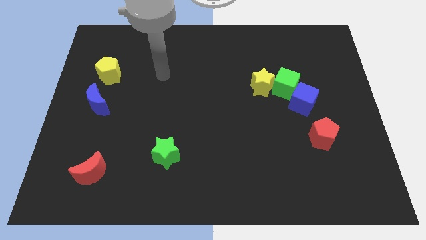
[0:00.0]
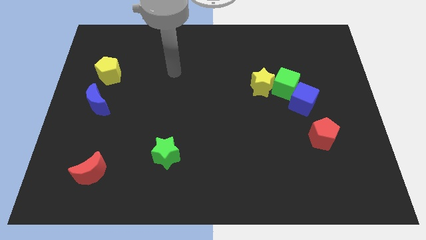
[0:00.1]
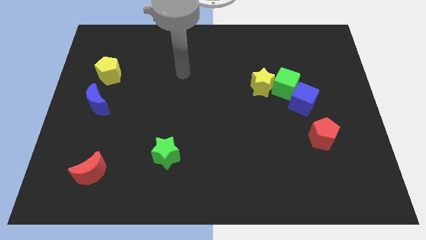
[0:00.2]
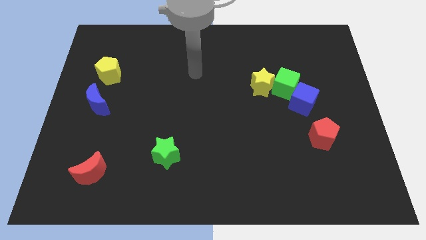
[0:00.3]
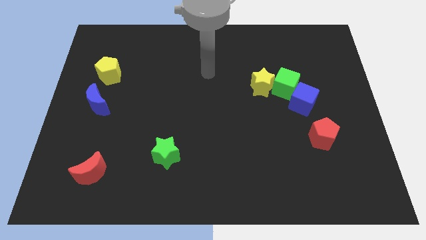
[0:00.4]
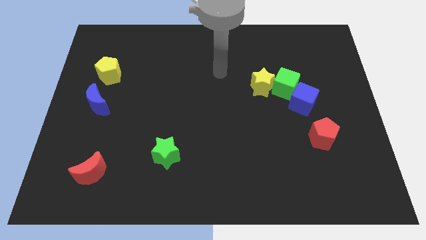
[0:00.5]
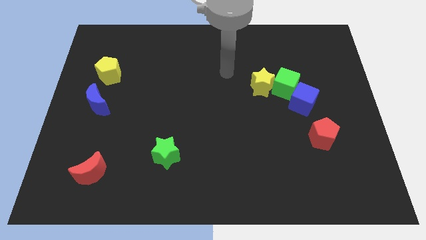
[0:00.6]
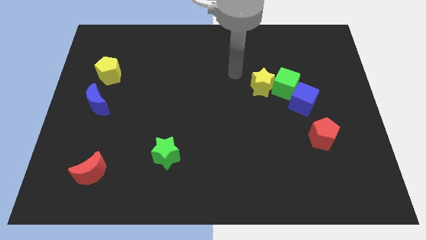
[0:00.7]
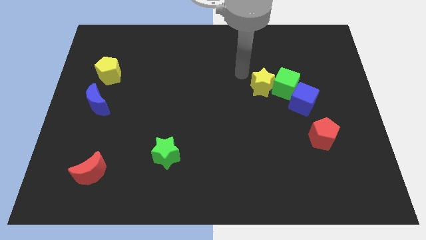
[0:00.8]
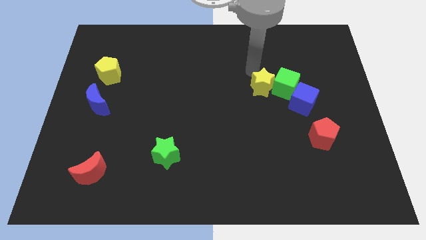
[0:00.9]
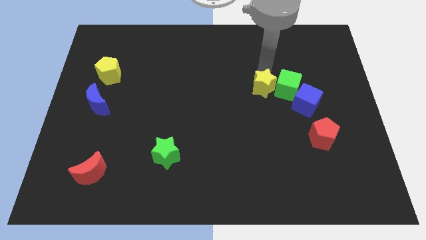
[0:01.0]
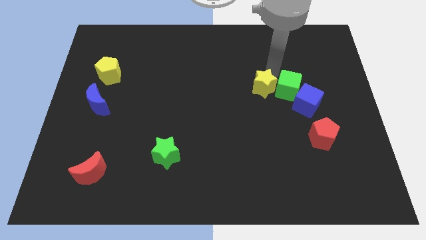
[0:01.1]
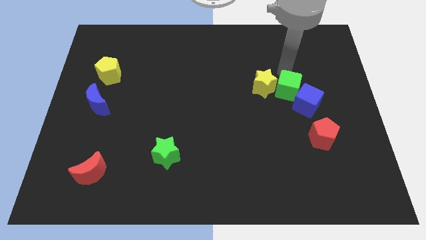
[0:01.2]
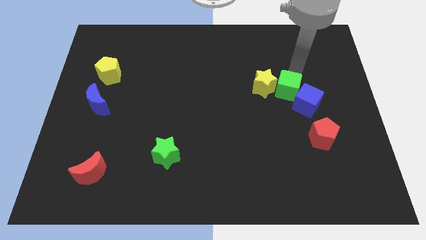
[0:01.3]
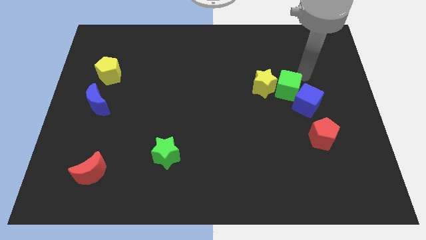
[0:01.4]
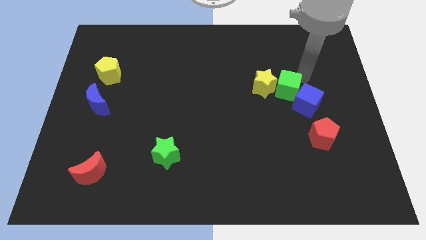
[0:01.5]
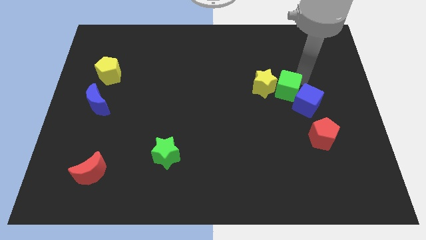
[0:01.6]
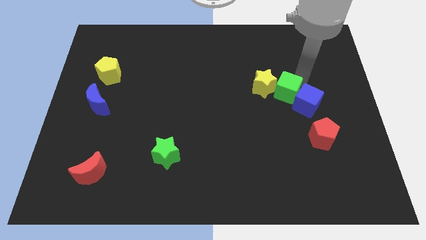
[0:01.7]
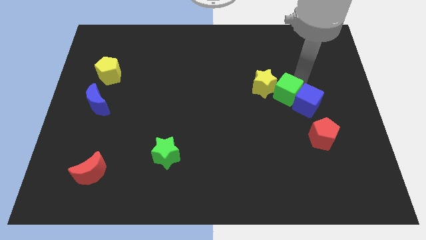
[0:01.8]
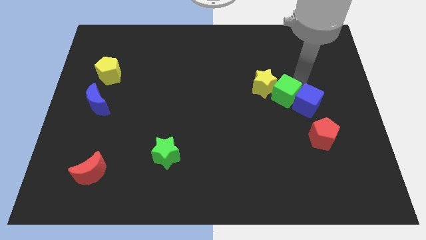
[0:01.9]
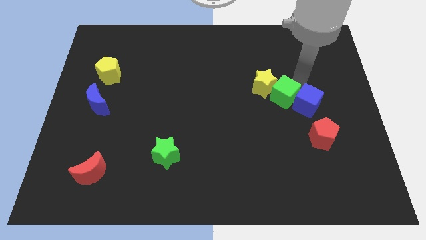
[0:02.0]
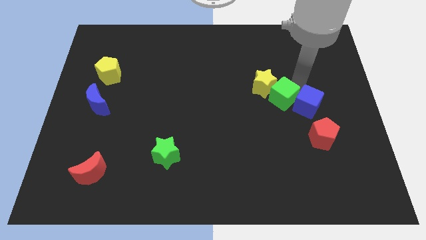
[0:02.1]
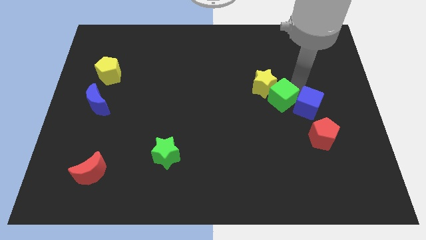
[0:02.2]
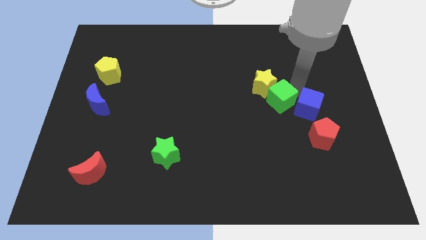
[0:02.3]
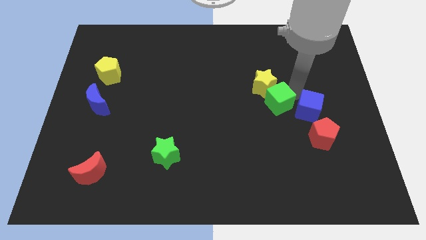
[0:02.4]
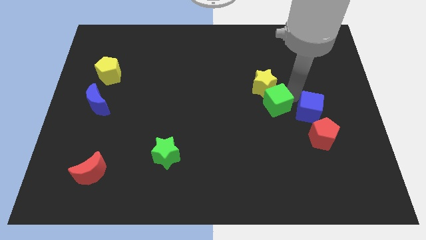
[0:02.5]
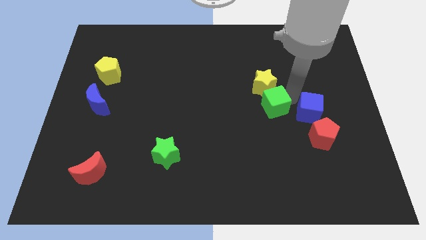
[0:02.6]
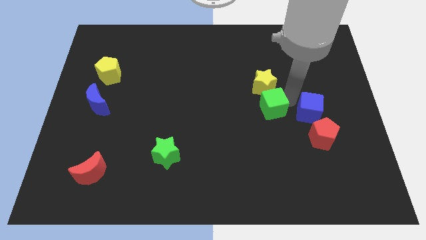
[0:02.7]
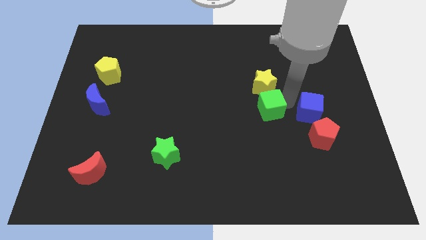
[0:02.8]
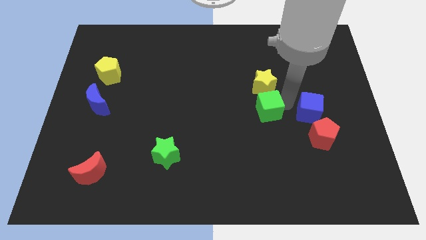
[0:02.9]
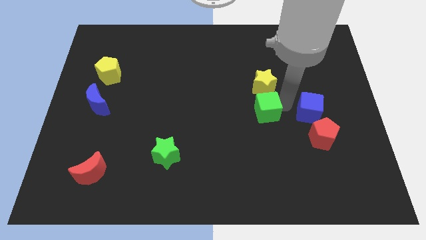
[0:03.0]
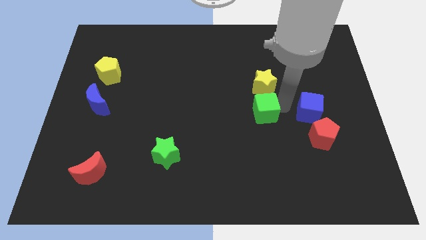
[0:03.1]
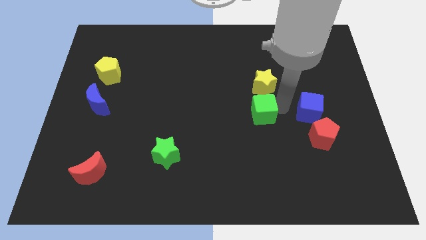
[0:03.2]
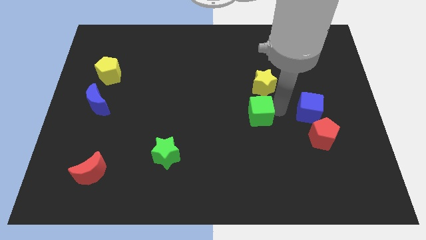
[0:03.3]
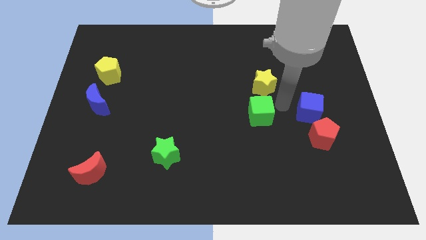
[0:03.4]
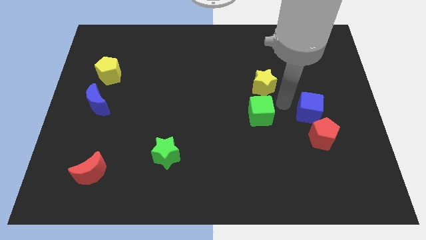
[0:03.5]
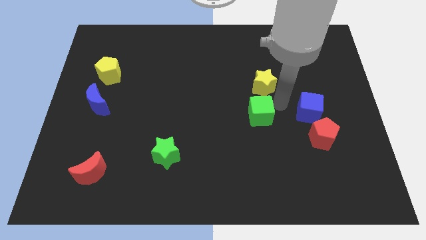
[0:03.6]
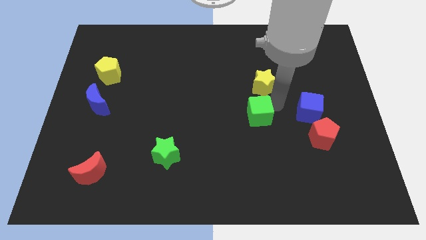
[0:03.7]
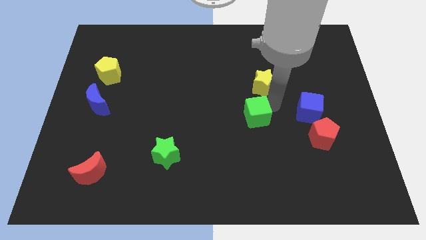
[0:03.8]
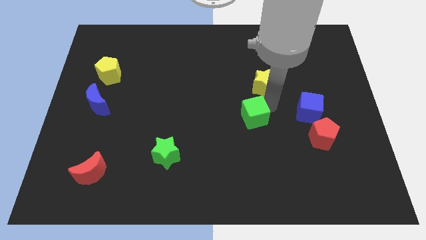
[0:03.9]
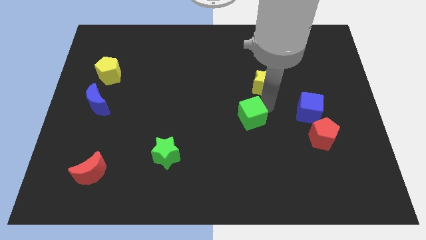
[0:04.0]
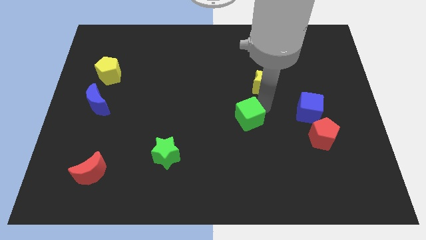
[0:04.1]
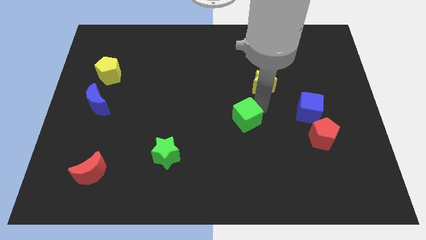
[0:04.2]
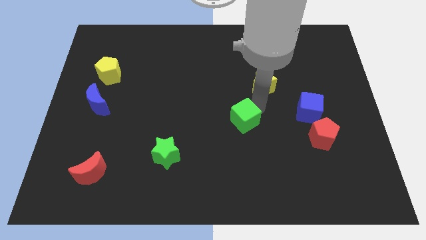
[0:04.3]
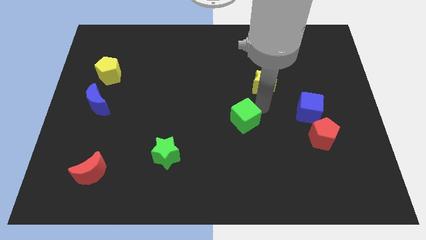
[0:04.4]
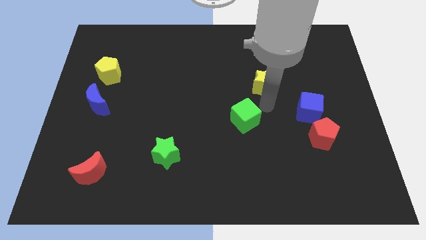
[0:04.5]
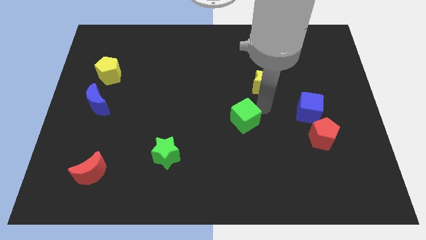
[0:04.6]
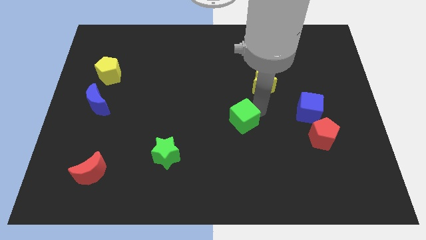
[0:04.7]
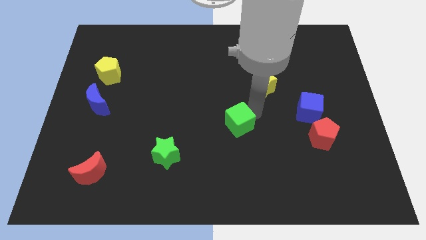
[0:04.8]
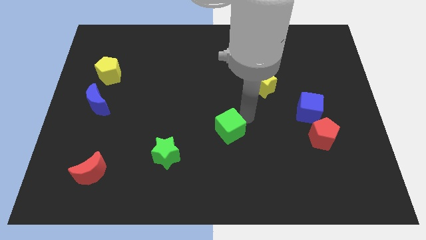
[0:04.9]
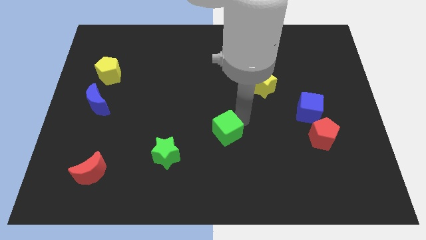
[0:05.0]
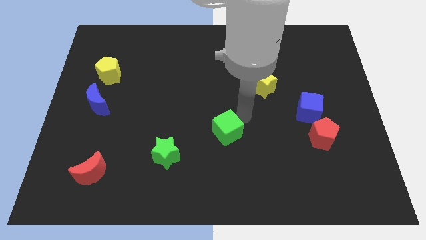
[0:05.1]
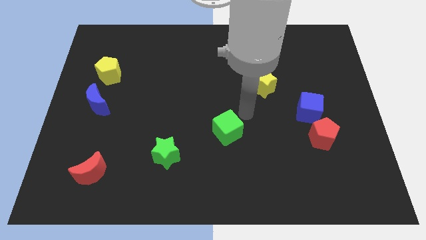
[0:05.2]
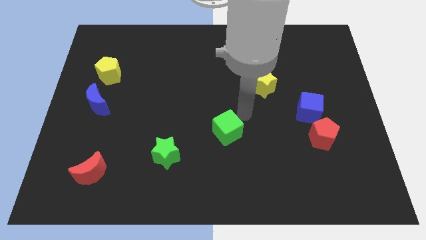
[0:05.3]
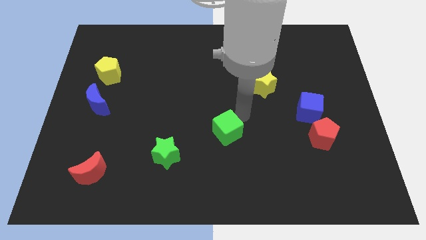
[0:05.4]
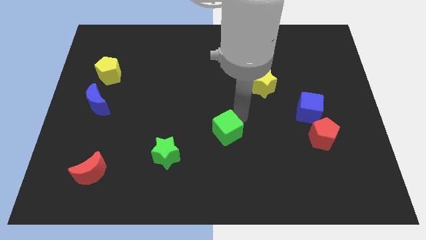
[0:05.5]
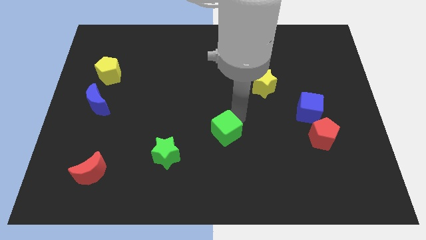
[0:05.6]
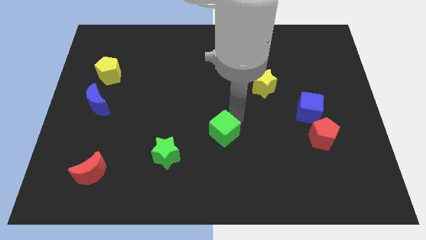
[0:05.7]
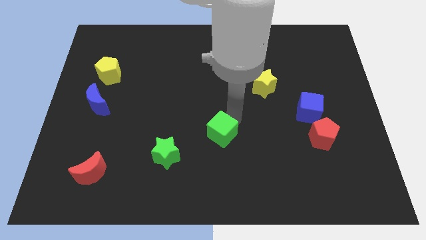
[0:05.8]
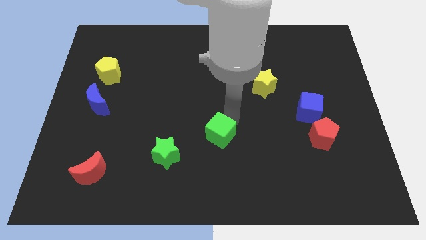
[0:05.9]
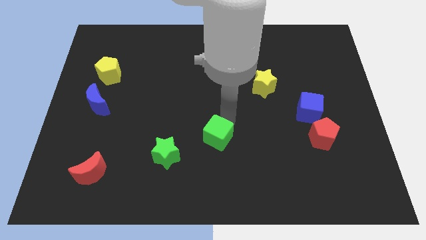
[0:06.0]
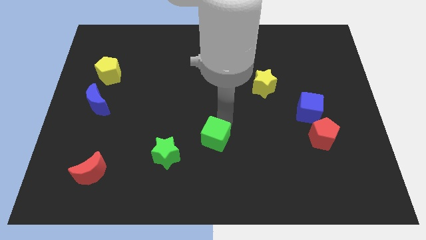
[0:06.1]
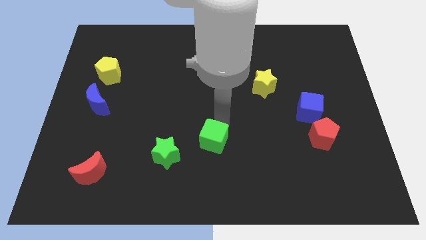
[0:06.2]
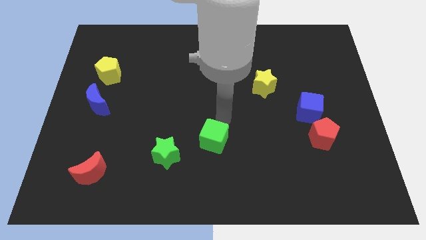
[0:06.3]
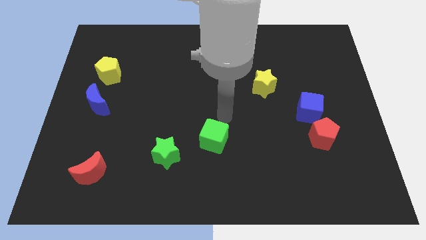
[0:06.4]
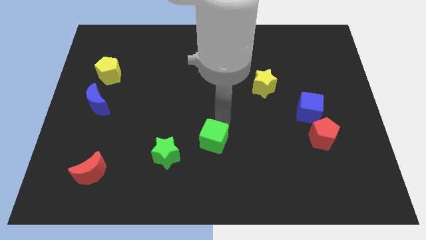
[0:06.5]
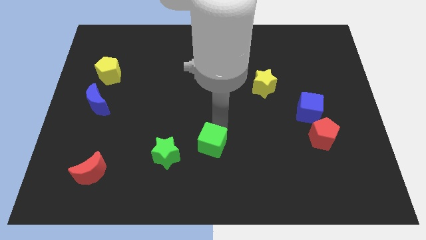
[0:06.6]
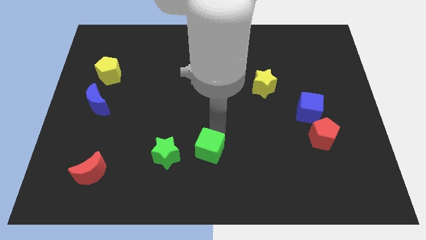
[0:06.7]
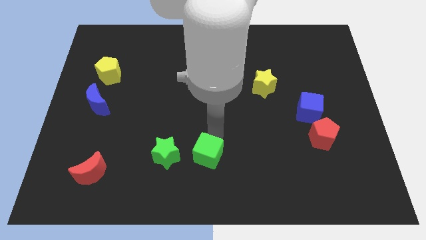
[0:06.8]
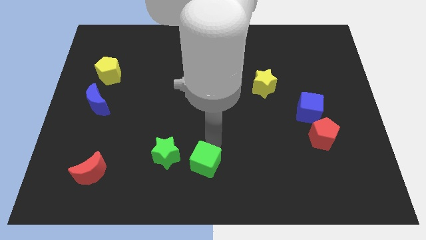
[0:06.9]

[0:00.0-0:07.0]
push the green cube to the bottom right of the green star
